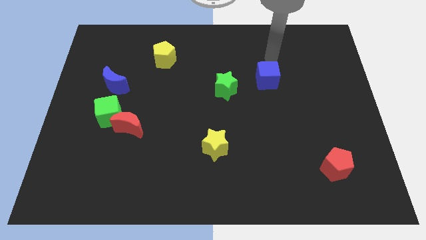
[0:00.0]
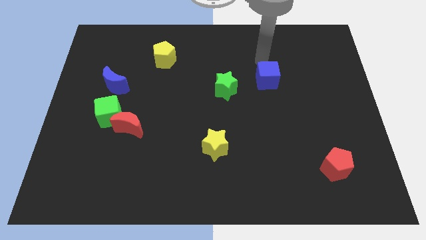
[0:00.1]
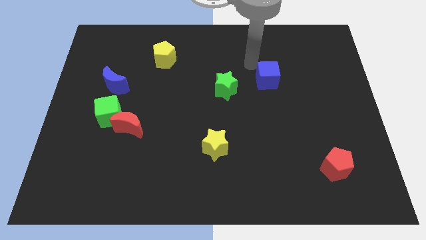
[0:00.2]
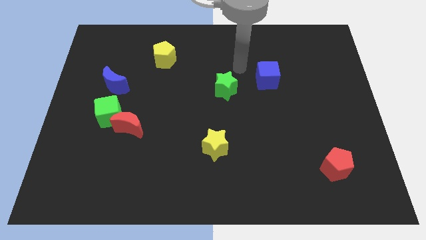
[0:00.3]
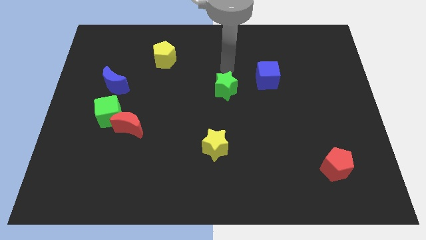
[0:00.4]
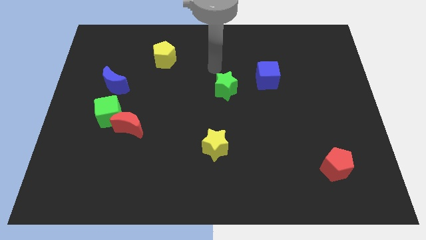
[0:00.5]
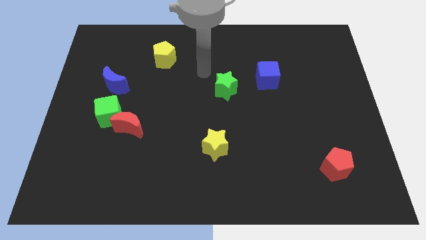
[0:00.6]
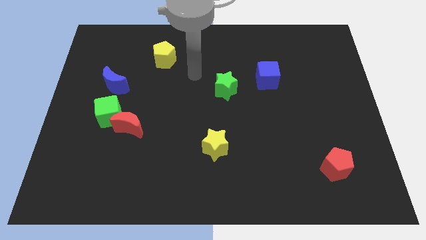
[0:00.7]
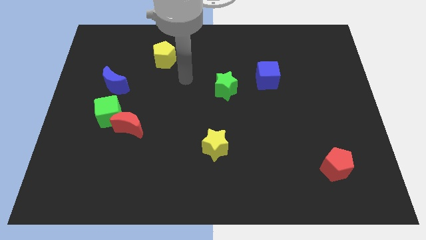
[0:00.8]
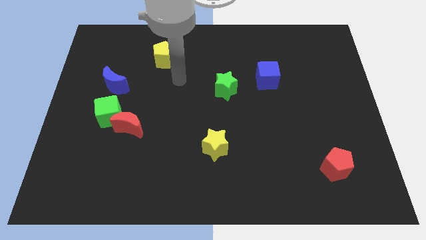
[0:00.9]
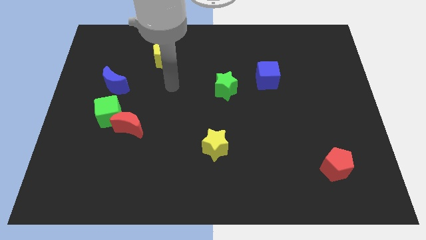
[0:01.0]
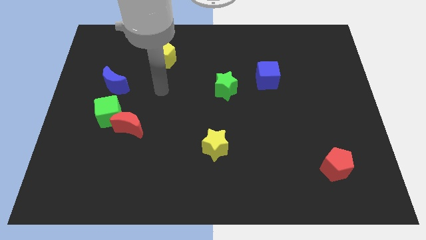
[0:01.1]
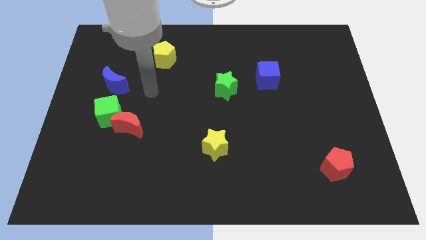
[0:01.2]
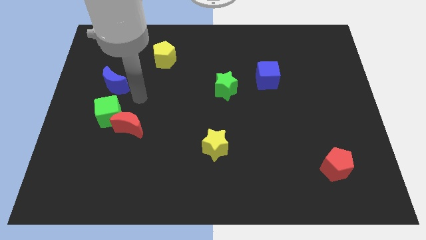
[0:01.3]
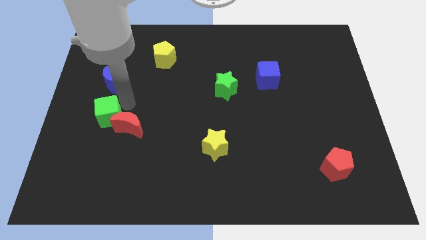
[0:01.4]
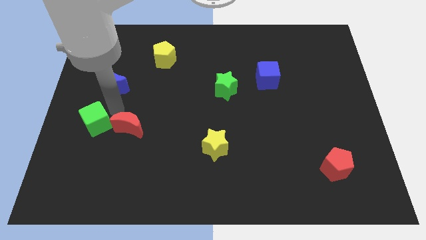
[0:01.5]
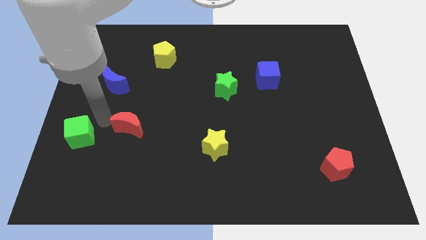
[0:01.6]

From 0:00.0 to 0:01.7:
separate the red moon from the green cube

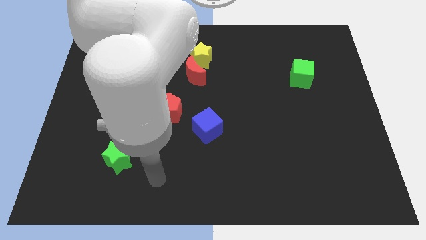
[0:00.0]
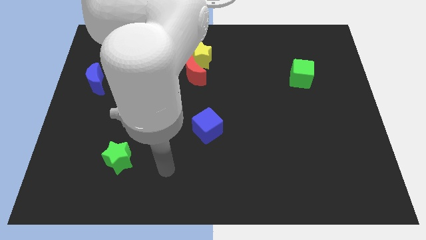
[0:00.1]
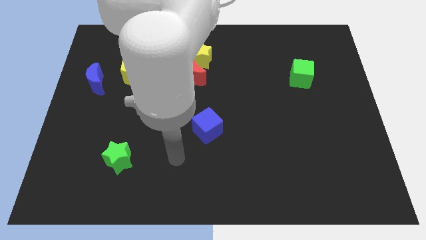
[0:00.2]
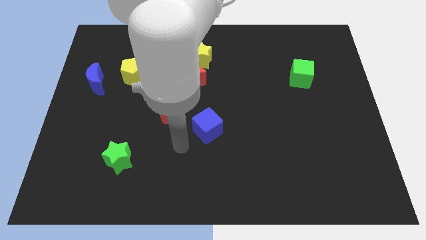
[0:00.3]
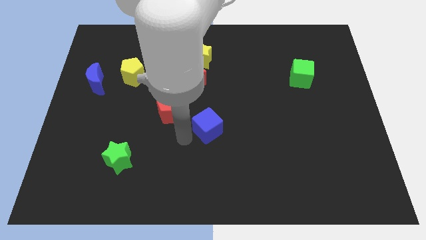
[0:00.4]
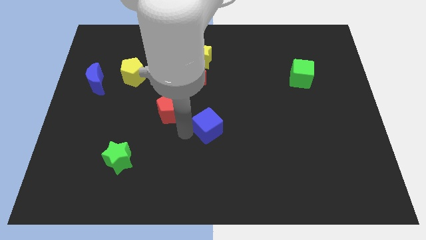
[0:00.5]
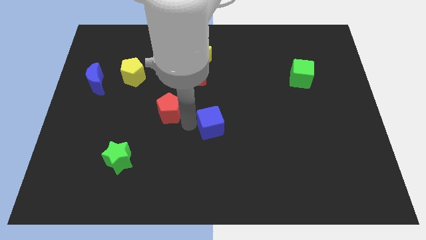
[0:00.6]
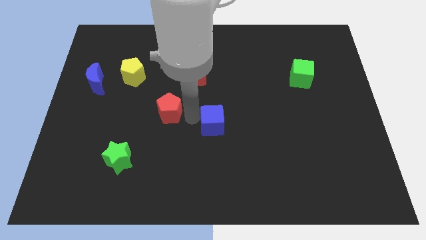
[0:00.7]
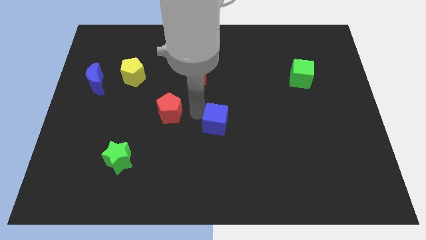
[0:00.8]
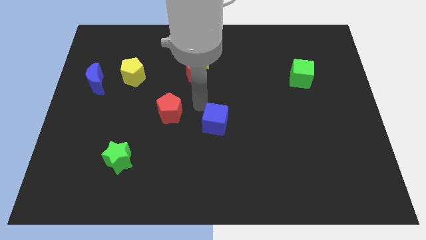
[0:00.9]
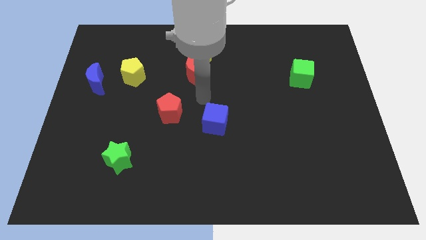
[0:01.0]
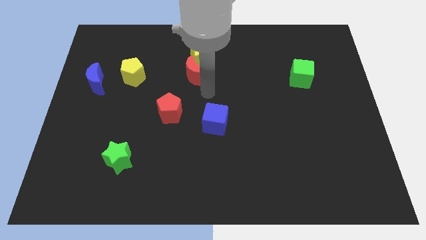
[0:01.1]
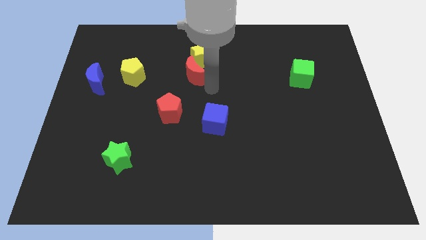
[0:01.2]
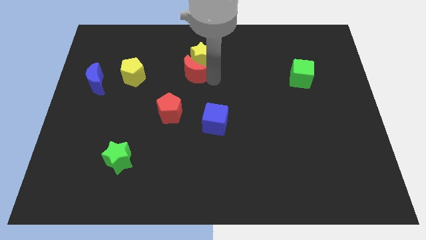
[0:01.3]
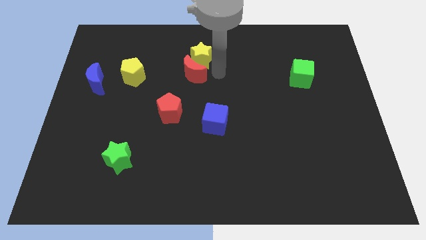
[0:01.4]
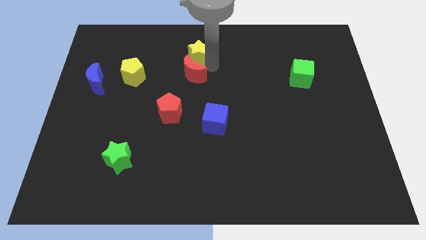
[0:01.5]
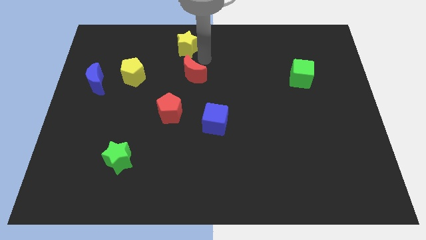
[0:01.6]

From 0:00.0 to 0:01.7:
separate the red moon from the yellow star

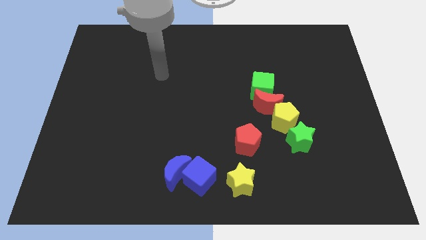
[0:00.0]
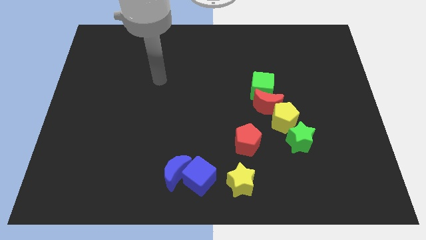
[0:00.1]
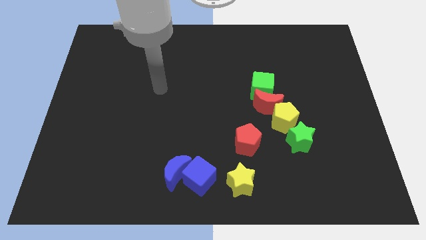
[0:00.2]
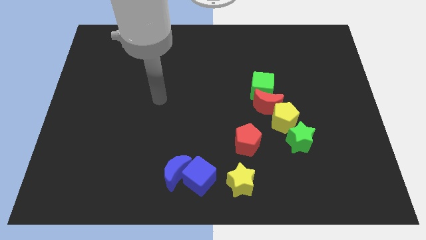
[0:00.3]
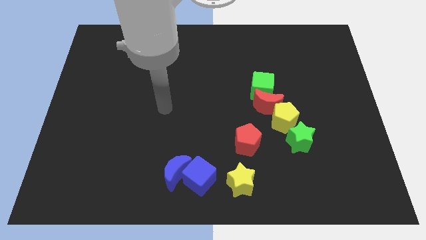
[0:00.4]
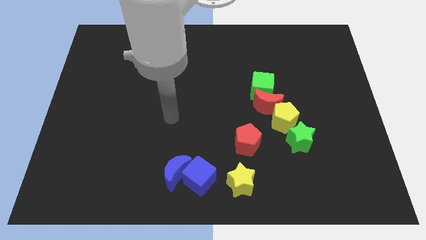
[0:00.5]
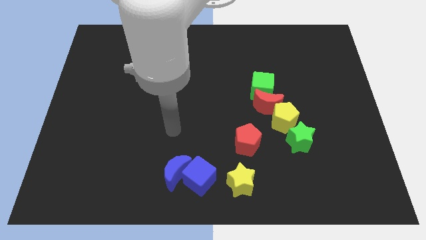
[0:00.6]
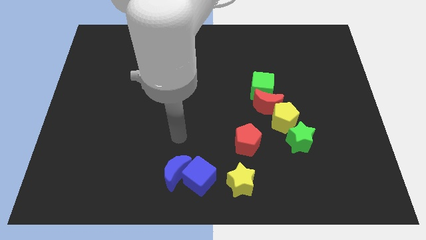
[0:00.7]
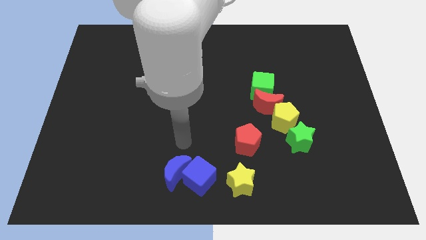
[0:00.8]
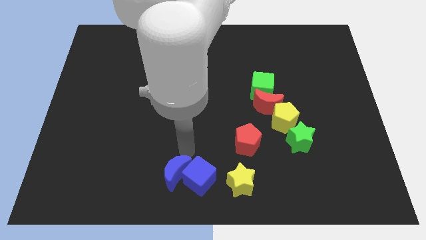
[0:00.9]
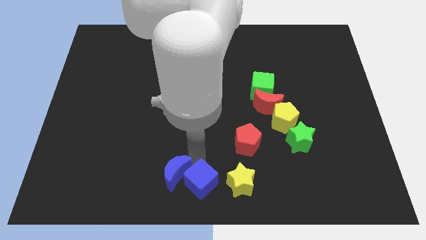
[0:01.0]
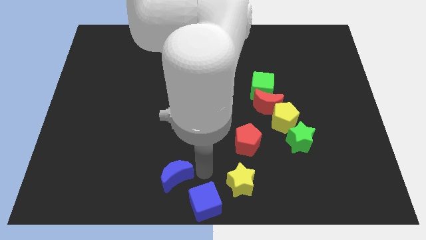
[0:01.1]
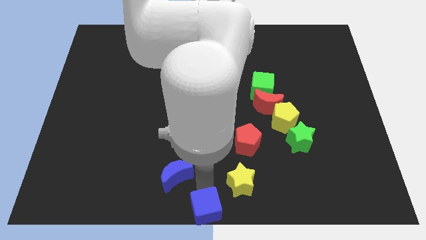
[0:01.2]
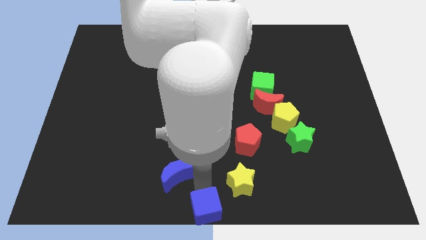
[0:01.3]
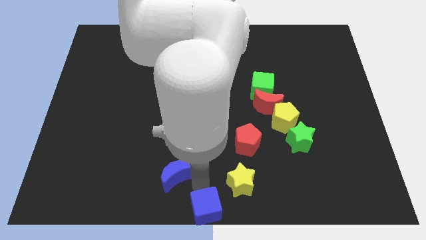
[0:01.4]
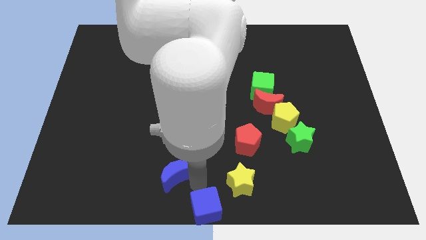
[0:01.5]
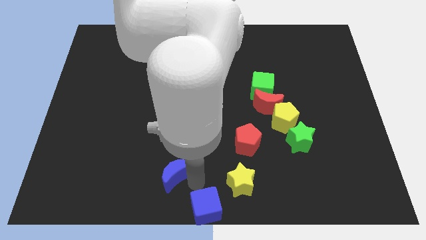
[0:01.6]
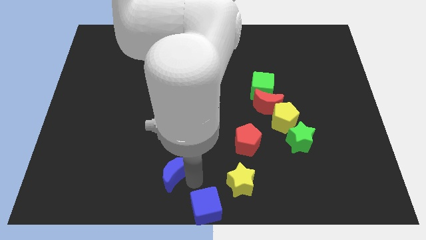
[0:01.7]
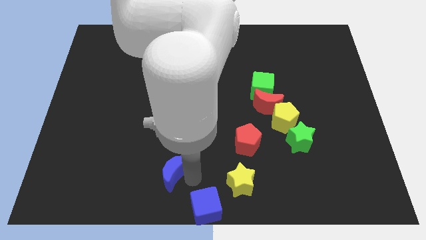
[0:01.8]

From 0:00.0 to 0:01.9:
pull the blue moon apart from the blue cube

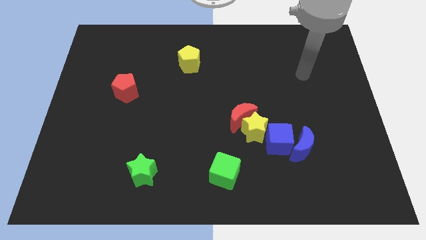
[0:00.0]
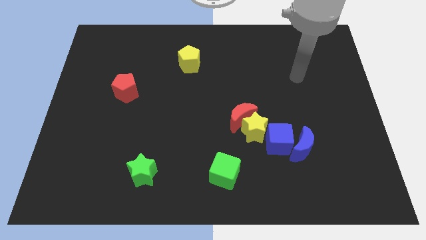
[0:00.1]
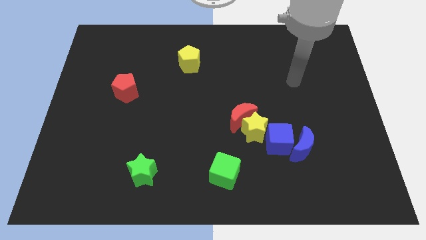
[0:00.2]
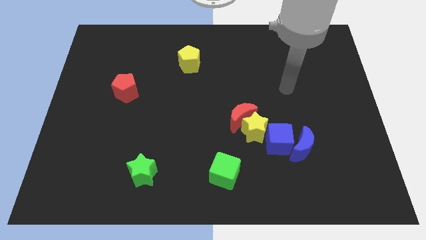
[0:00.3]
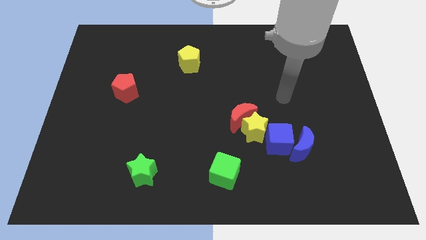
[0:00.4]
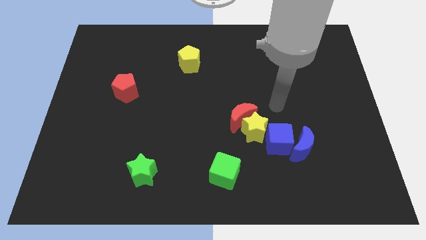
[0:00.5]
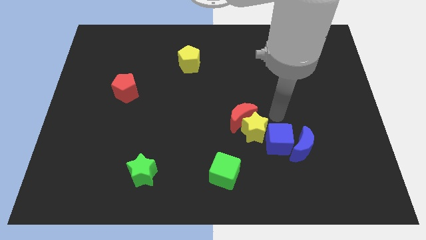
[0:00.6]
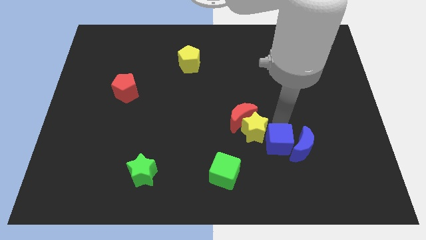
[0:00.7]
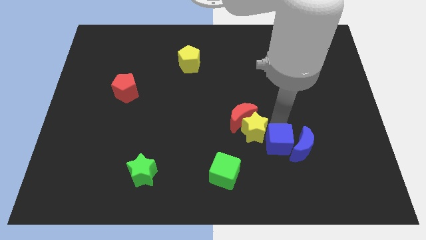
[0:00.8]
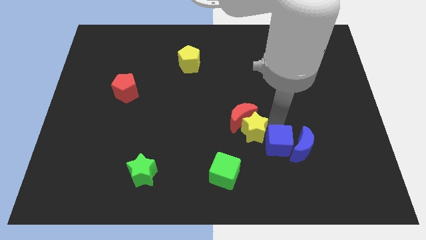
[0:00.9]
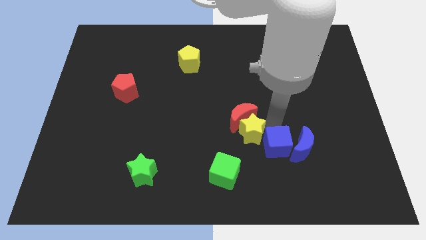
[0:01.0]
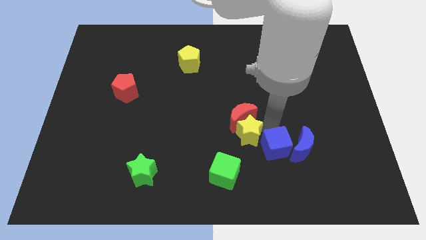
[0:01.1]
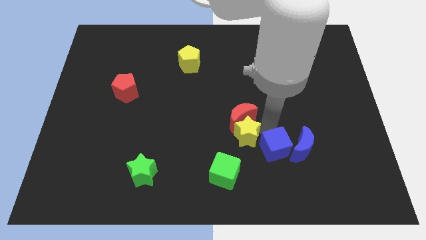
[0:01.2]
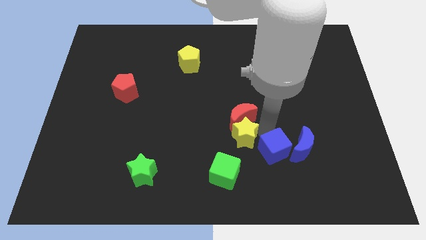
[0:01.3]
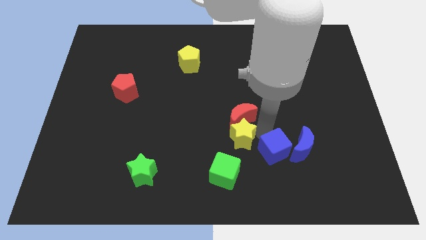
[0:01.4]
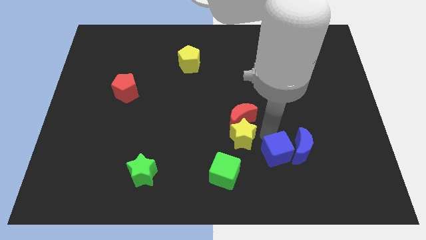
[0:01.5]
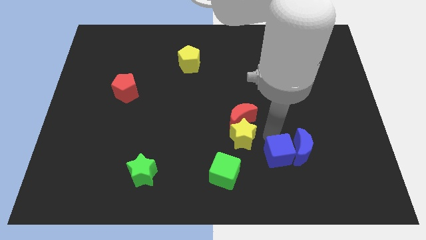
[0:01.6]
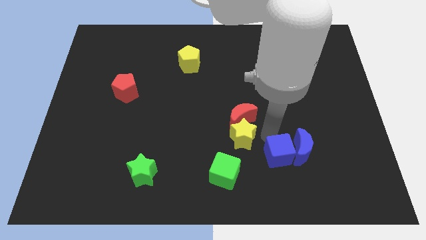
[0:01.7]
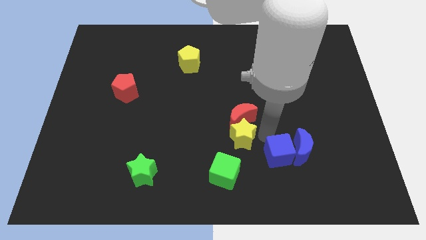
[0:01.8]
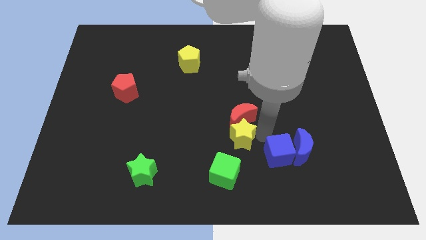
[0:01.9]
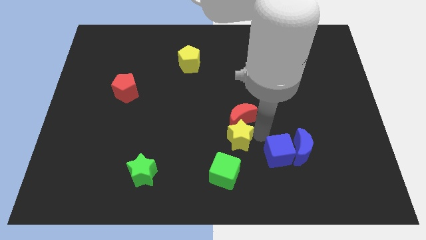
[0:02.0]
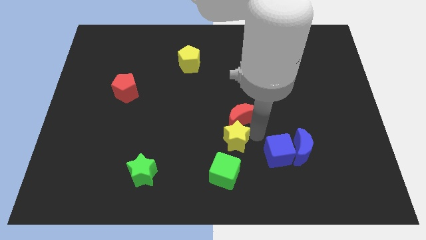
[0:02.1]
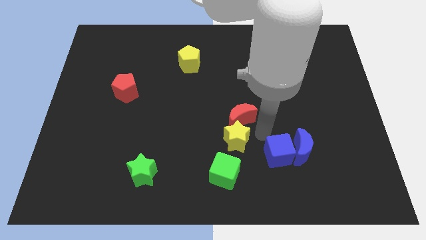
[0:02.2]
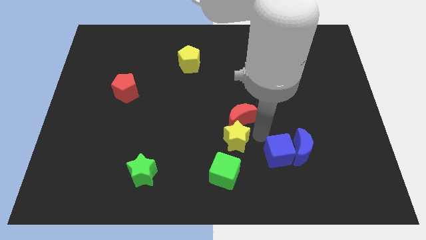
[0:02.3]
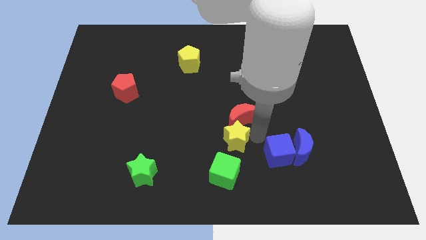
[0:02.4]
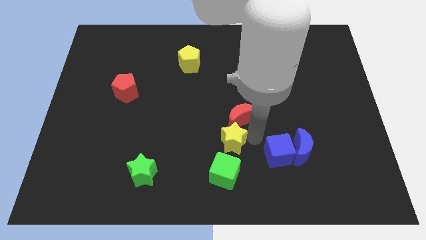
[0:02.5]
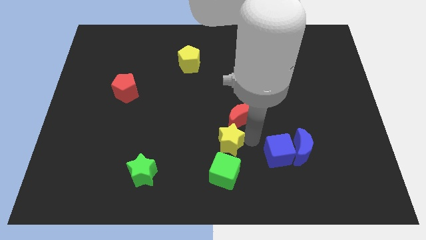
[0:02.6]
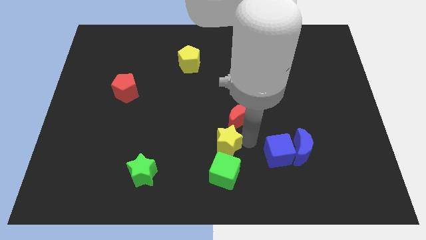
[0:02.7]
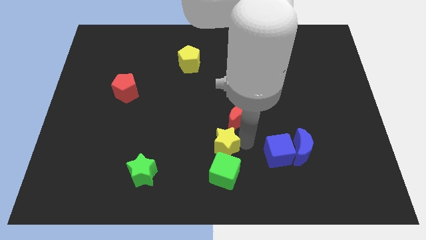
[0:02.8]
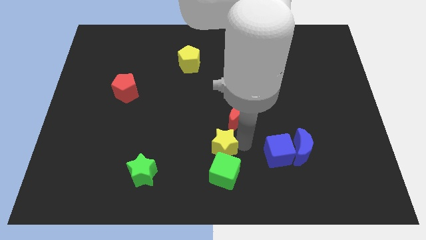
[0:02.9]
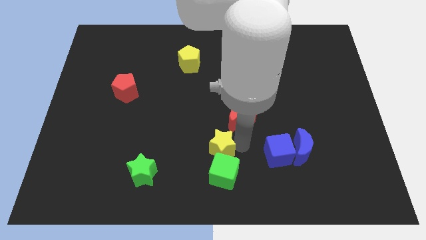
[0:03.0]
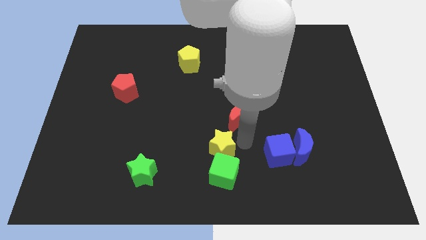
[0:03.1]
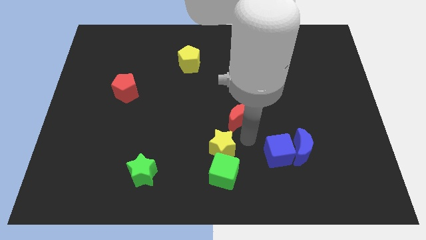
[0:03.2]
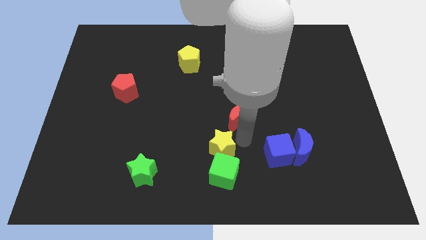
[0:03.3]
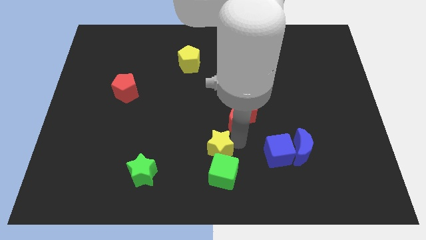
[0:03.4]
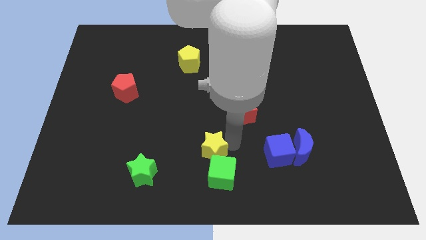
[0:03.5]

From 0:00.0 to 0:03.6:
separate the yellow star from the red moon and blue cube

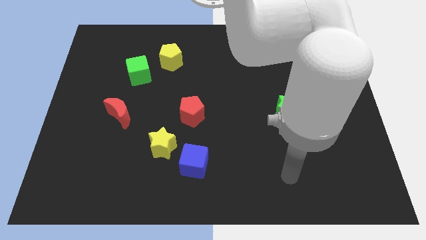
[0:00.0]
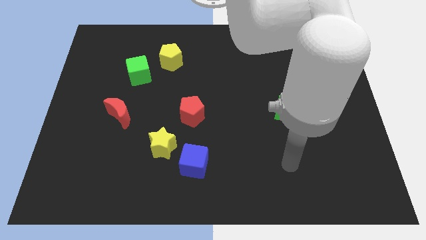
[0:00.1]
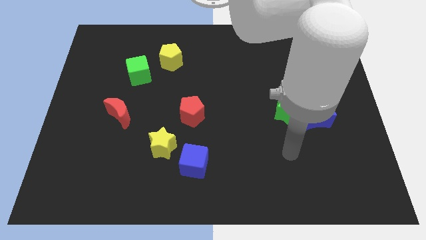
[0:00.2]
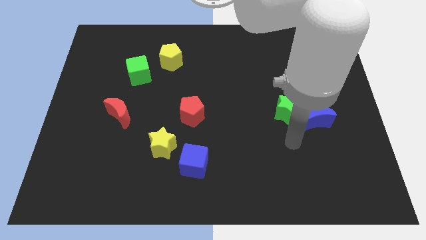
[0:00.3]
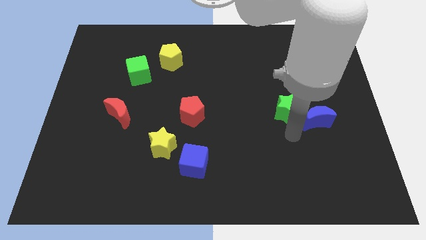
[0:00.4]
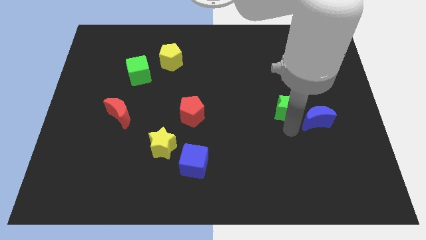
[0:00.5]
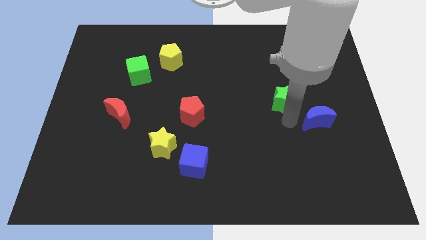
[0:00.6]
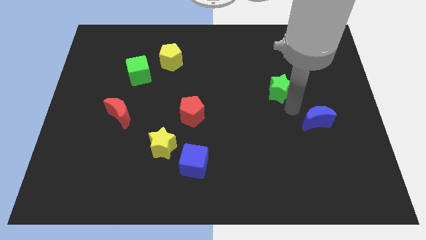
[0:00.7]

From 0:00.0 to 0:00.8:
separate the blue moon from the green star
